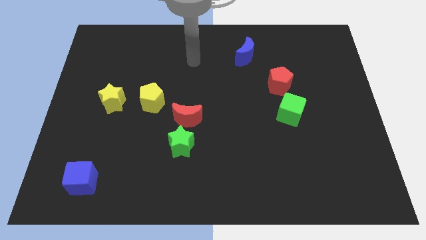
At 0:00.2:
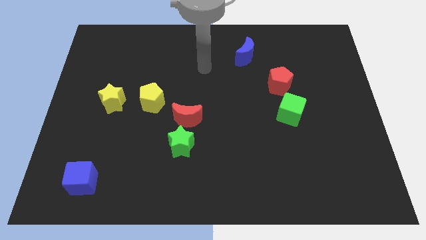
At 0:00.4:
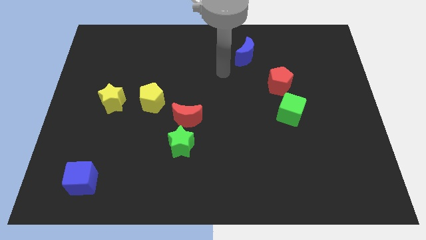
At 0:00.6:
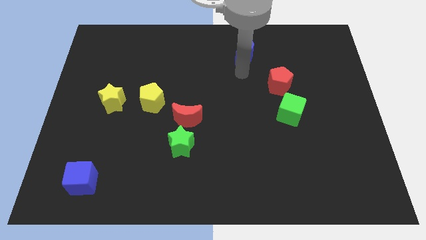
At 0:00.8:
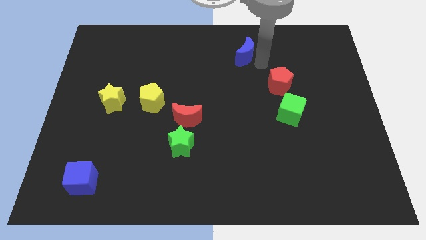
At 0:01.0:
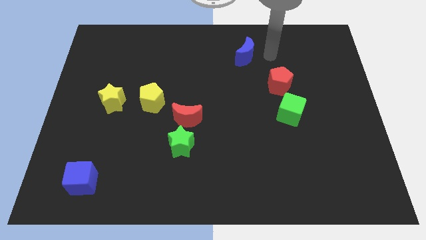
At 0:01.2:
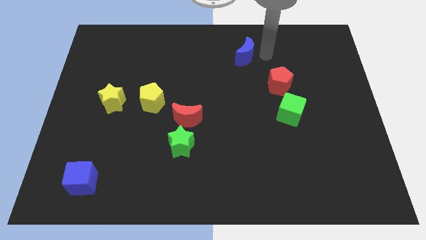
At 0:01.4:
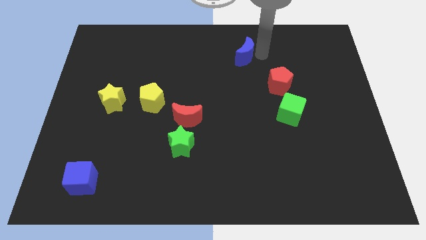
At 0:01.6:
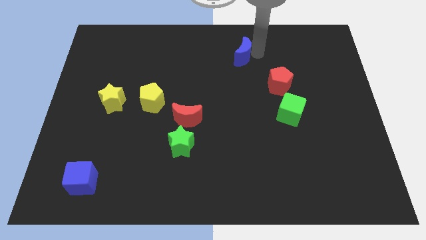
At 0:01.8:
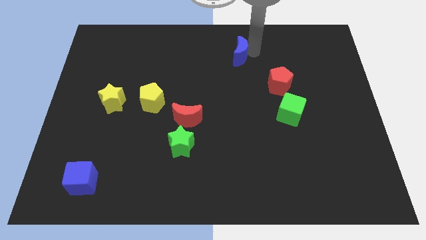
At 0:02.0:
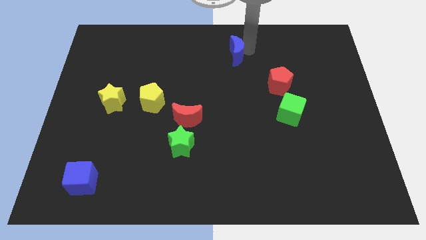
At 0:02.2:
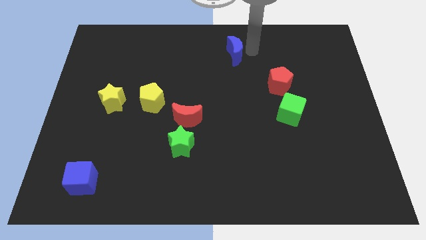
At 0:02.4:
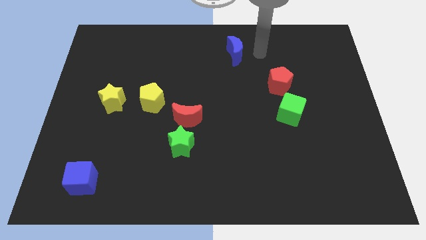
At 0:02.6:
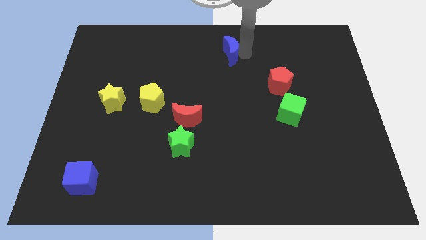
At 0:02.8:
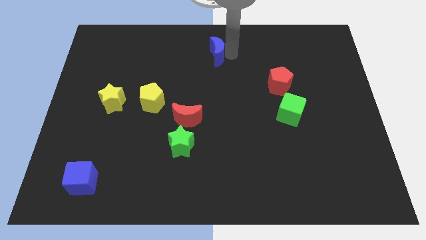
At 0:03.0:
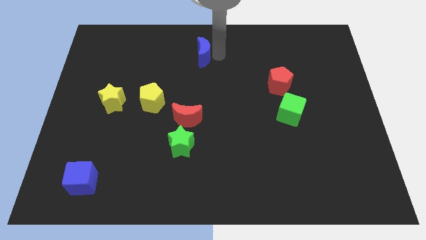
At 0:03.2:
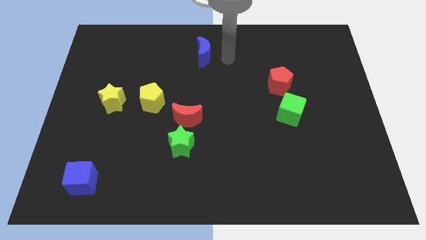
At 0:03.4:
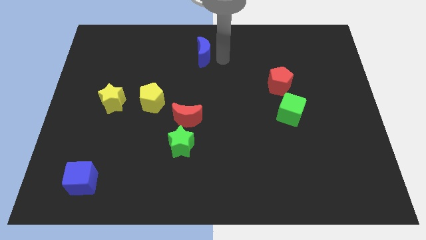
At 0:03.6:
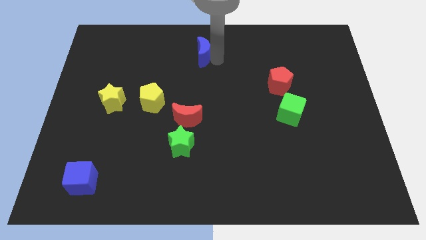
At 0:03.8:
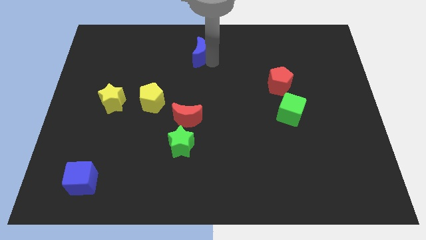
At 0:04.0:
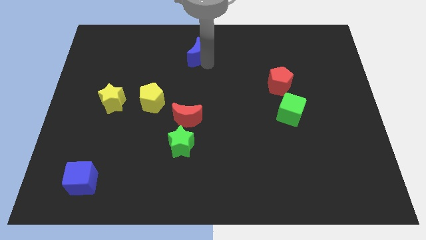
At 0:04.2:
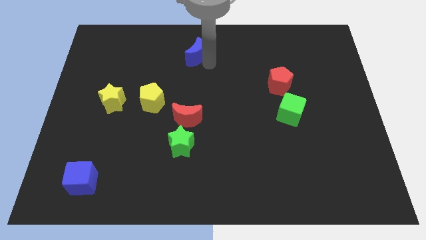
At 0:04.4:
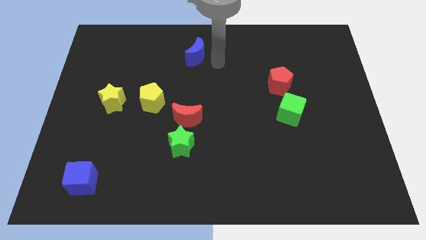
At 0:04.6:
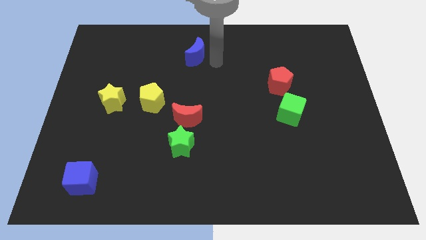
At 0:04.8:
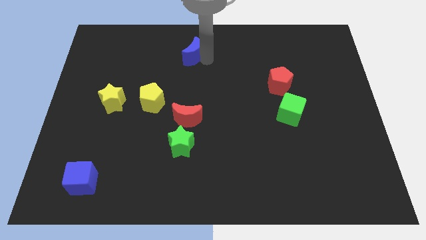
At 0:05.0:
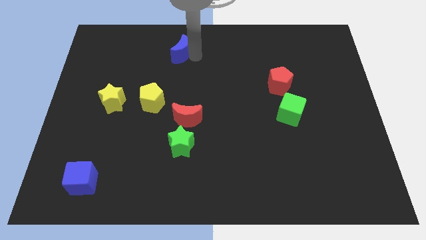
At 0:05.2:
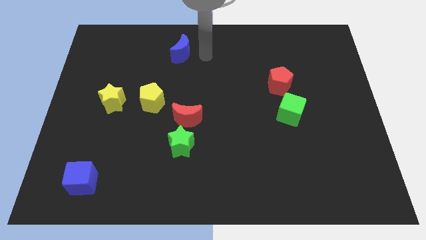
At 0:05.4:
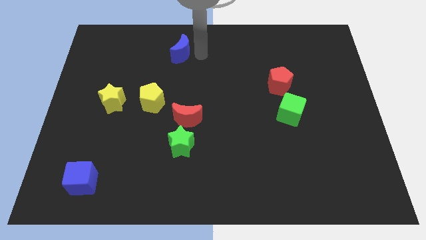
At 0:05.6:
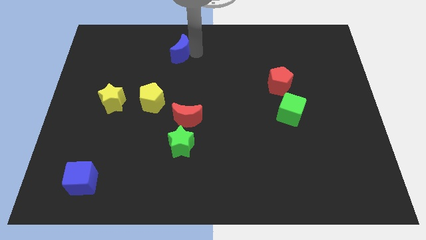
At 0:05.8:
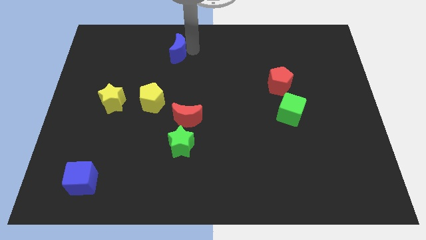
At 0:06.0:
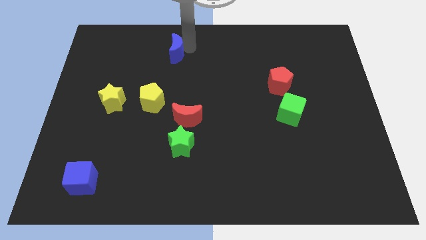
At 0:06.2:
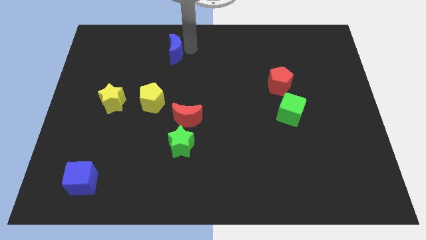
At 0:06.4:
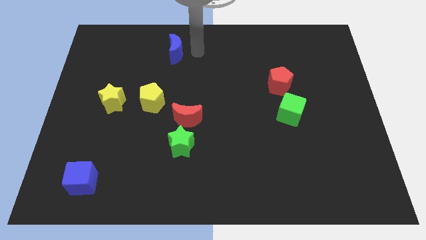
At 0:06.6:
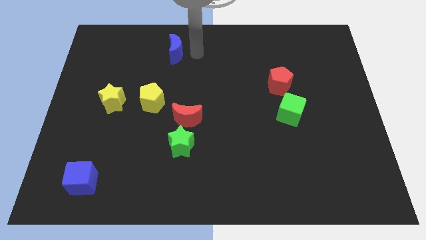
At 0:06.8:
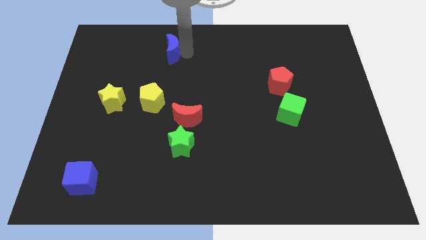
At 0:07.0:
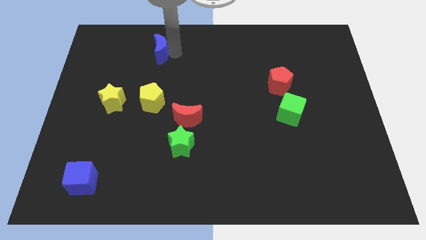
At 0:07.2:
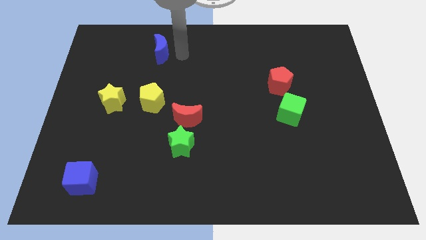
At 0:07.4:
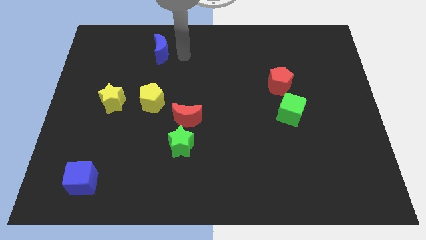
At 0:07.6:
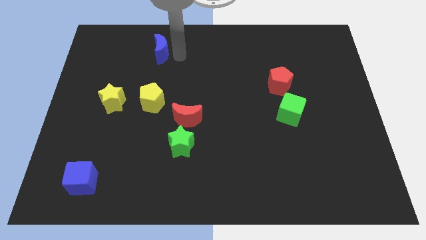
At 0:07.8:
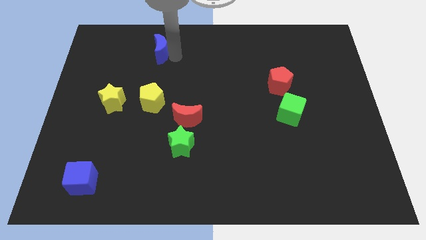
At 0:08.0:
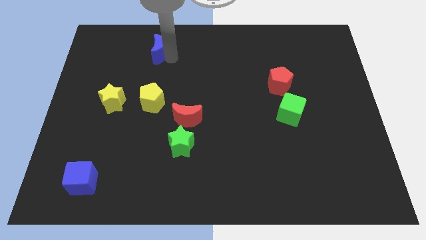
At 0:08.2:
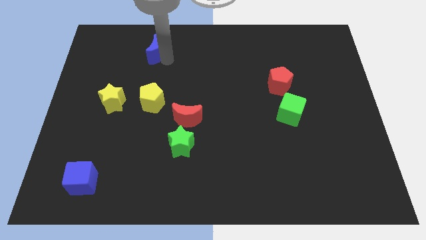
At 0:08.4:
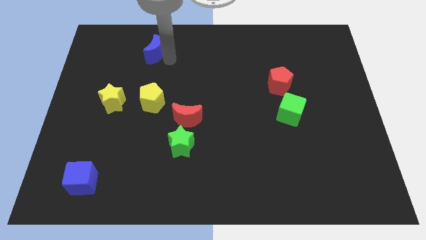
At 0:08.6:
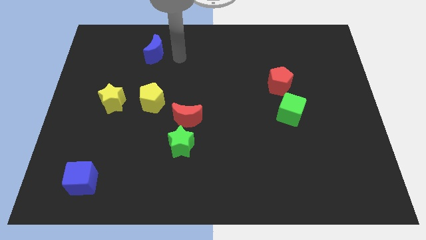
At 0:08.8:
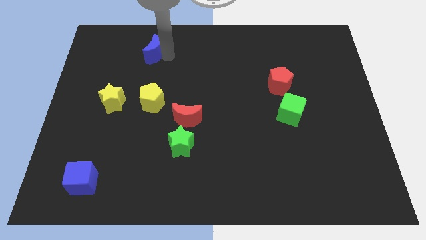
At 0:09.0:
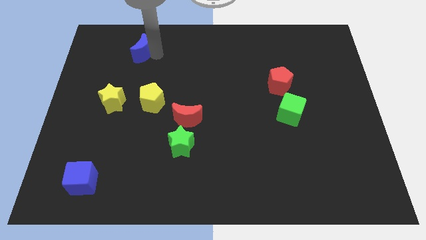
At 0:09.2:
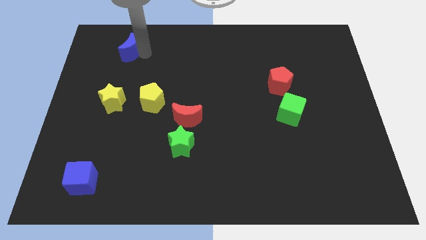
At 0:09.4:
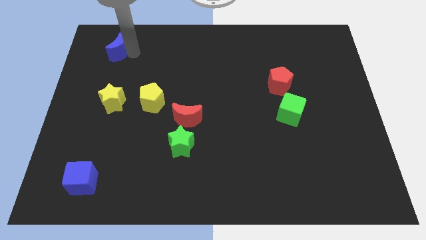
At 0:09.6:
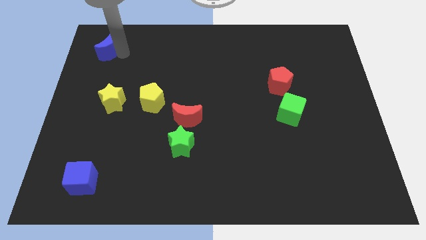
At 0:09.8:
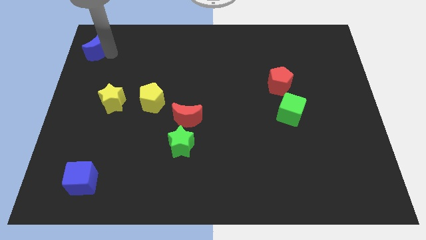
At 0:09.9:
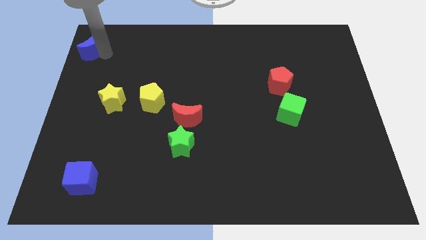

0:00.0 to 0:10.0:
push the blue moon to the top left corner

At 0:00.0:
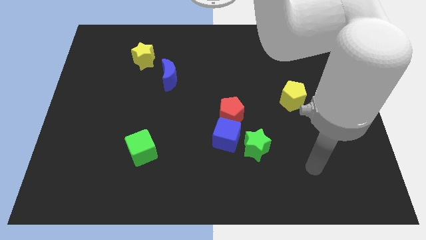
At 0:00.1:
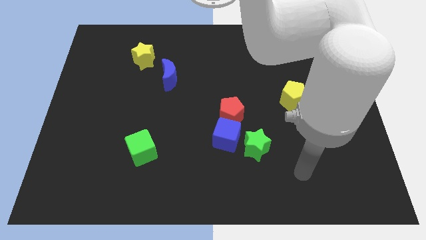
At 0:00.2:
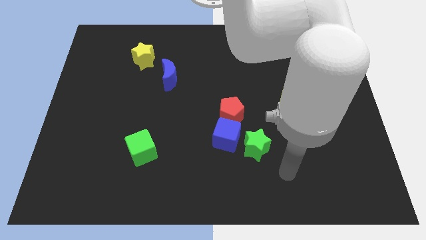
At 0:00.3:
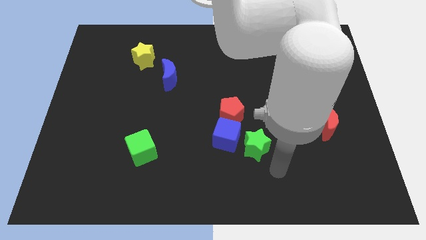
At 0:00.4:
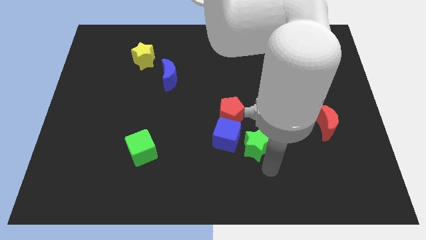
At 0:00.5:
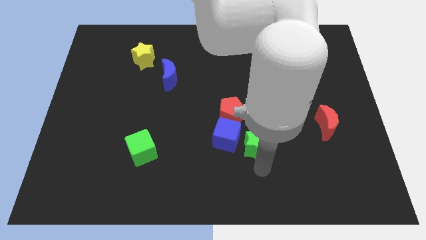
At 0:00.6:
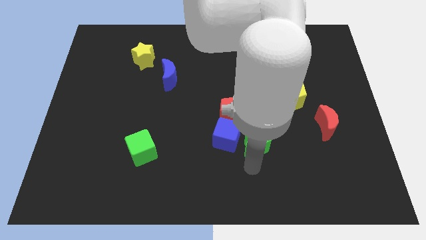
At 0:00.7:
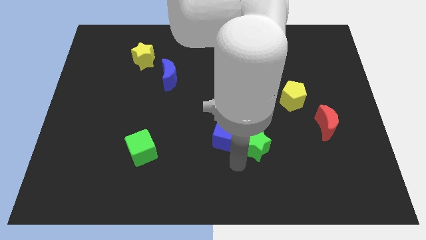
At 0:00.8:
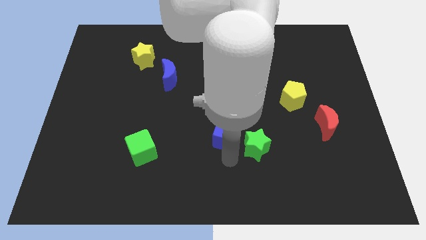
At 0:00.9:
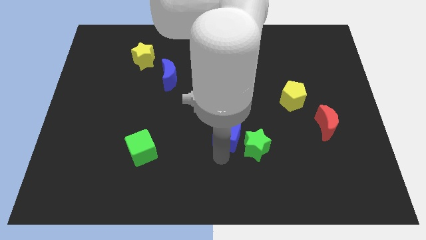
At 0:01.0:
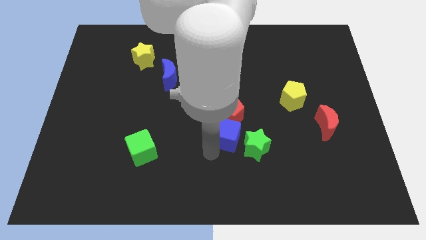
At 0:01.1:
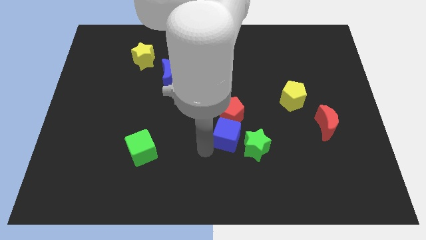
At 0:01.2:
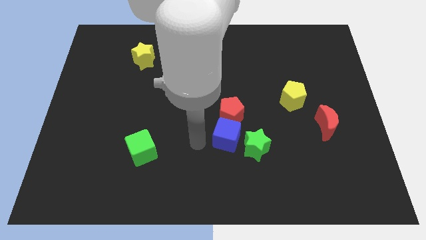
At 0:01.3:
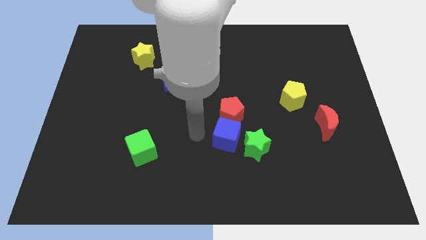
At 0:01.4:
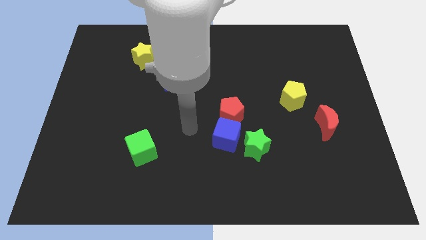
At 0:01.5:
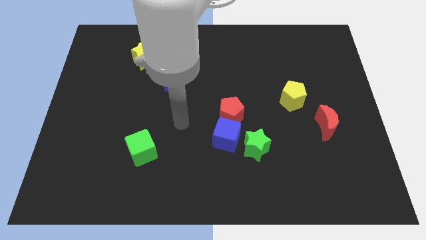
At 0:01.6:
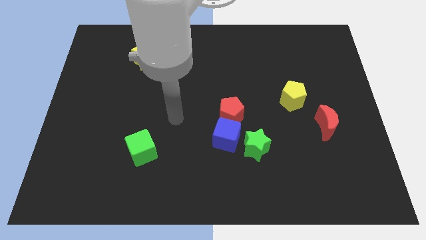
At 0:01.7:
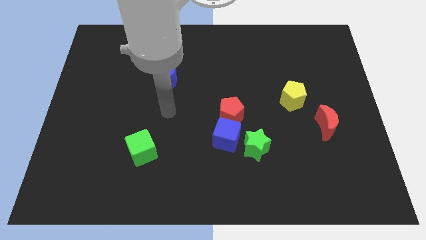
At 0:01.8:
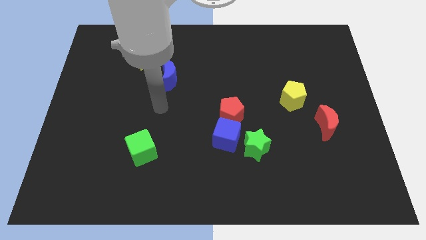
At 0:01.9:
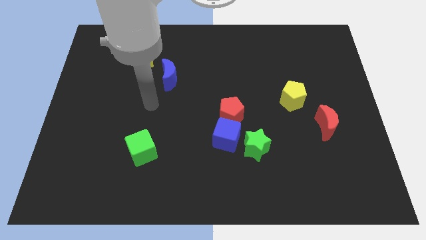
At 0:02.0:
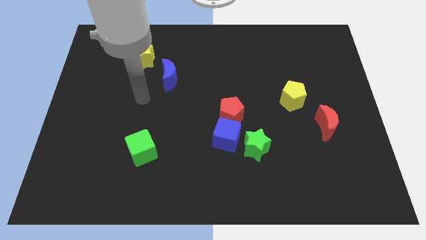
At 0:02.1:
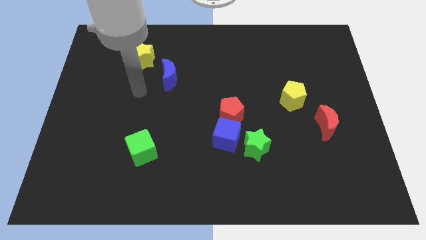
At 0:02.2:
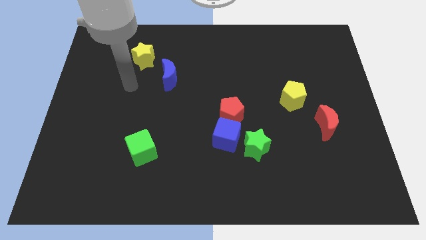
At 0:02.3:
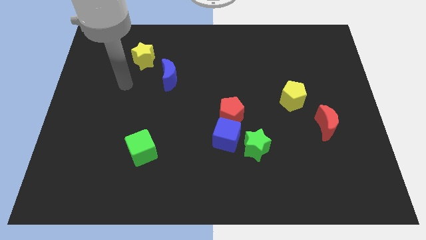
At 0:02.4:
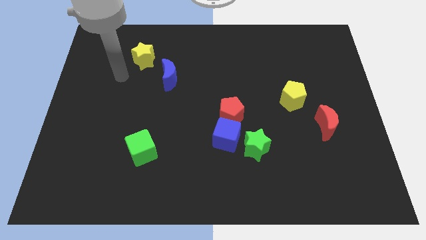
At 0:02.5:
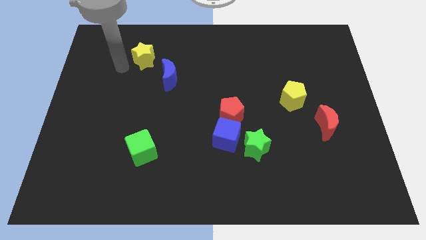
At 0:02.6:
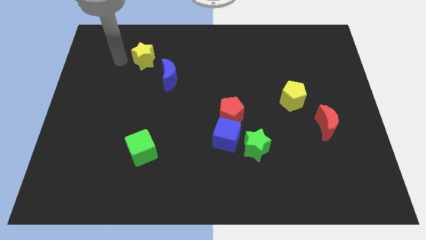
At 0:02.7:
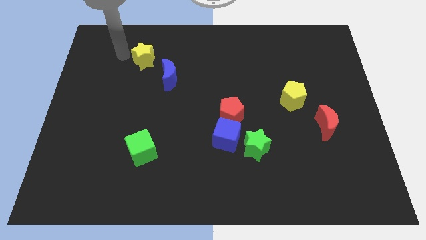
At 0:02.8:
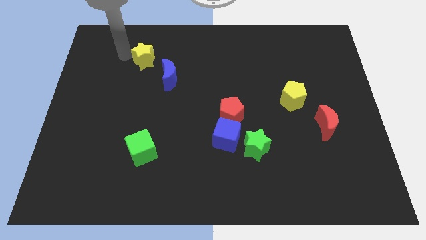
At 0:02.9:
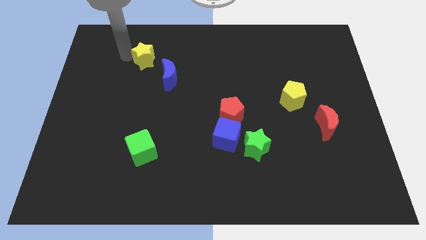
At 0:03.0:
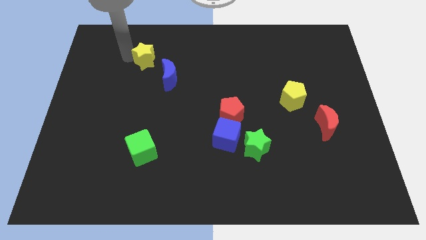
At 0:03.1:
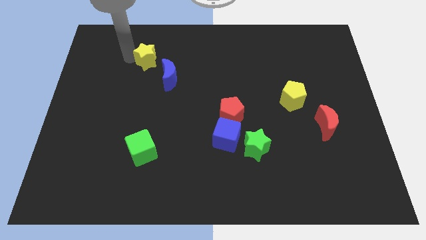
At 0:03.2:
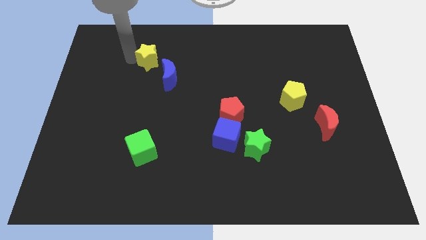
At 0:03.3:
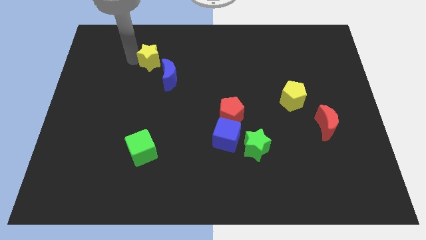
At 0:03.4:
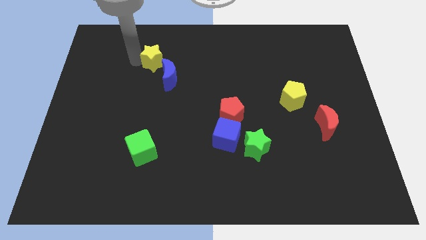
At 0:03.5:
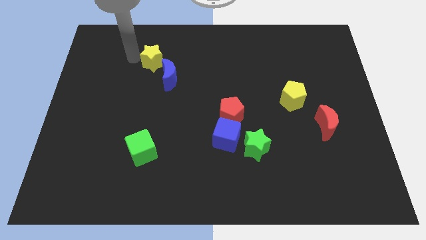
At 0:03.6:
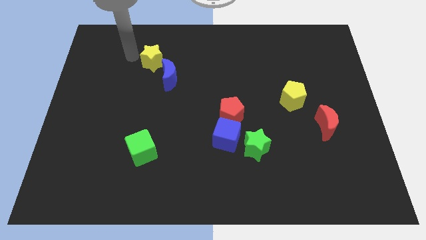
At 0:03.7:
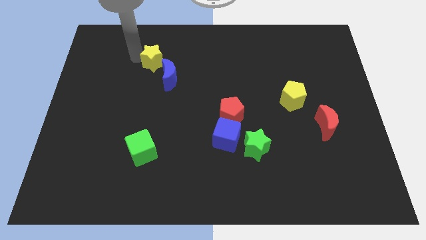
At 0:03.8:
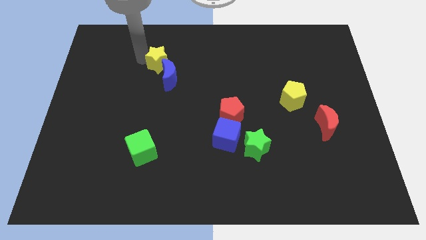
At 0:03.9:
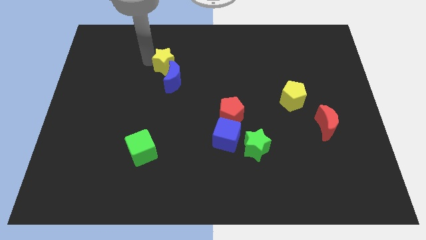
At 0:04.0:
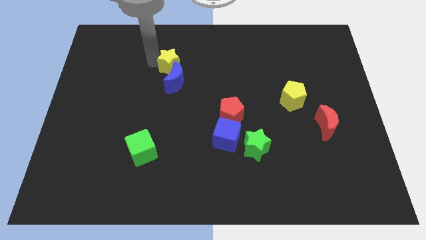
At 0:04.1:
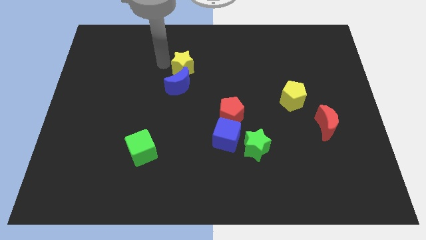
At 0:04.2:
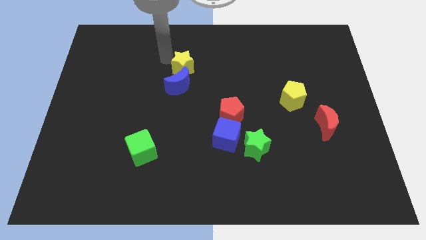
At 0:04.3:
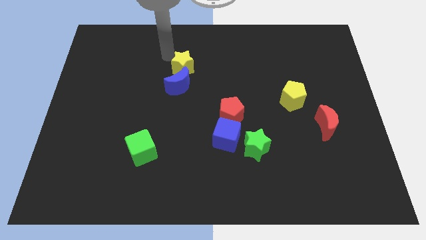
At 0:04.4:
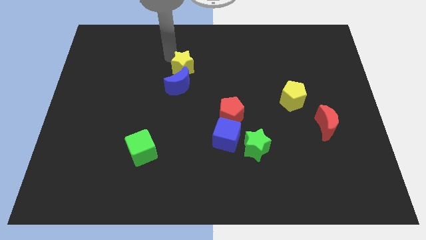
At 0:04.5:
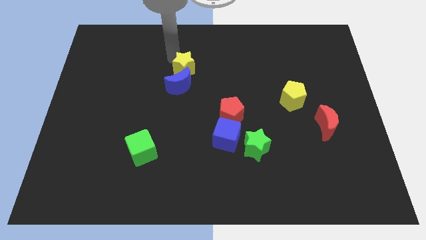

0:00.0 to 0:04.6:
push the yellow star to the middle of the board
